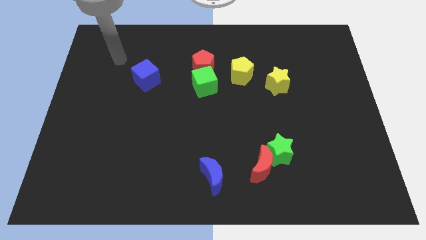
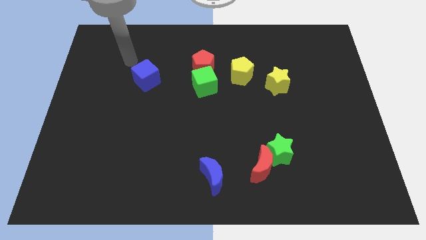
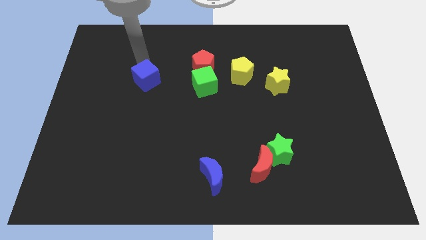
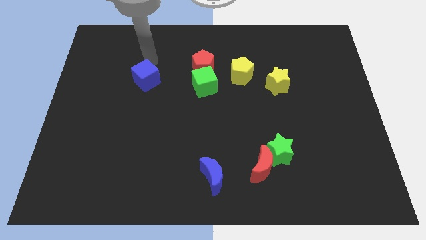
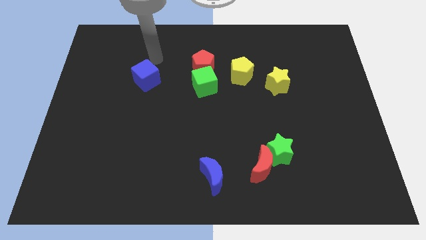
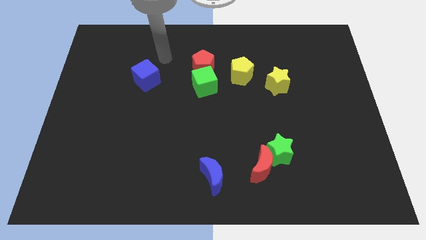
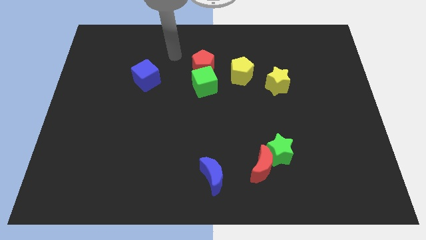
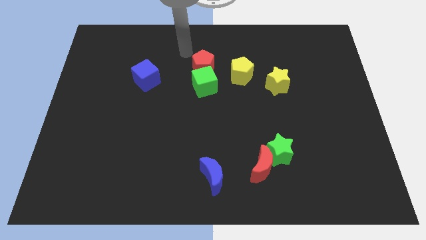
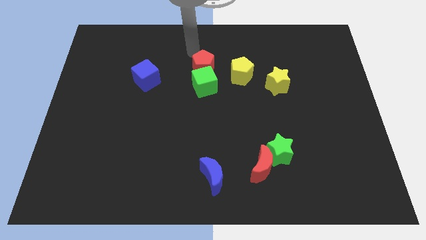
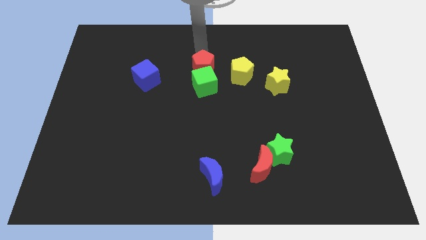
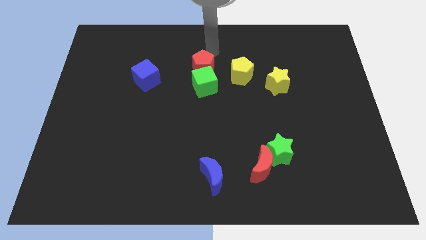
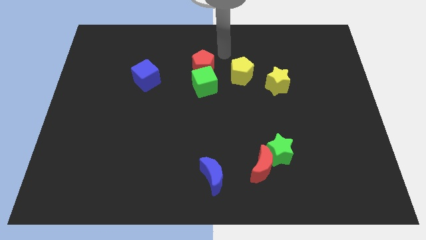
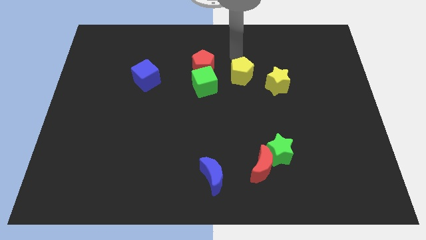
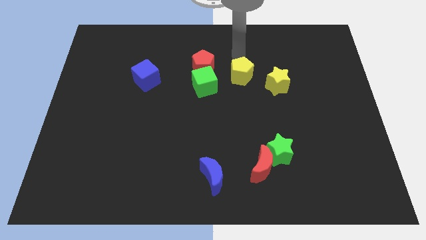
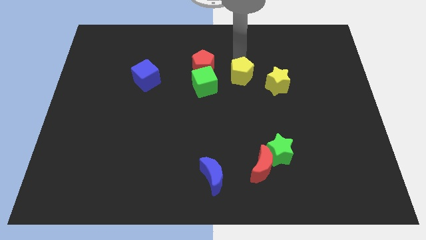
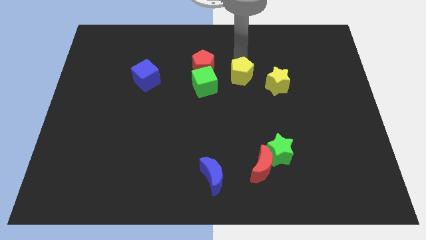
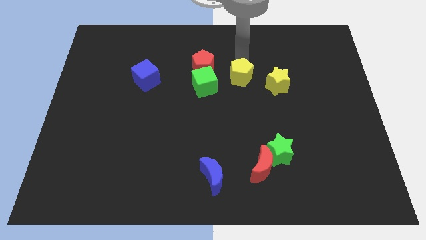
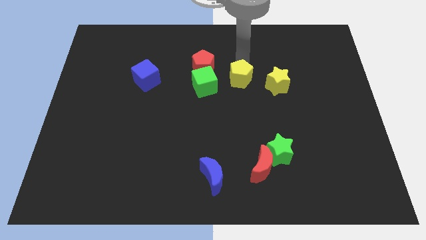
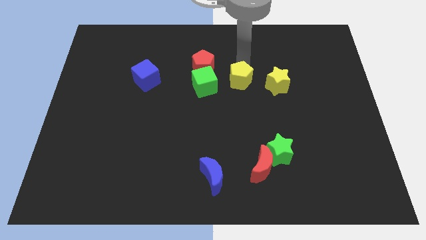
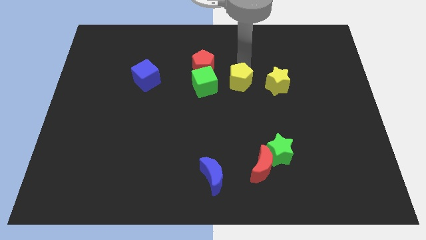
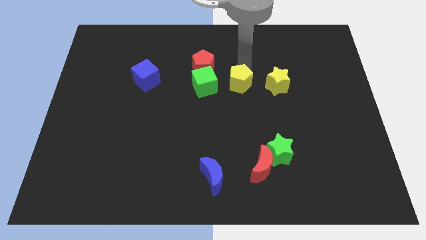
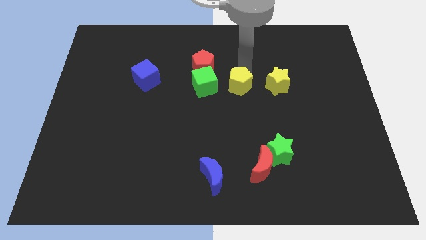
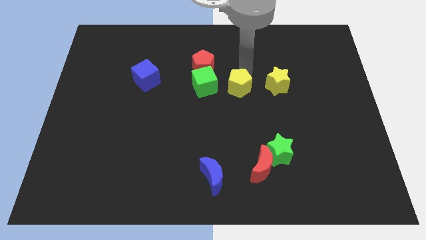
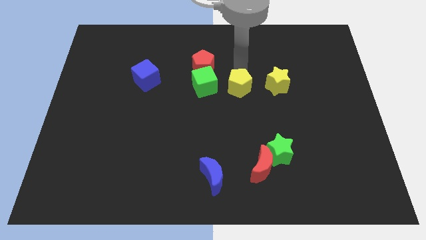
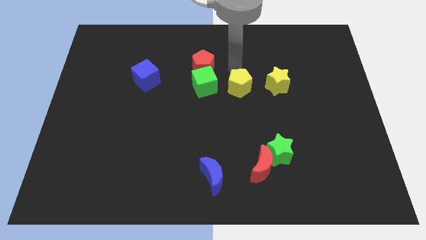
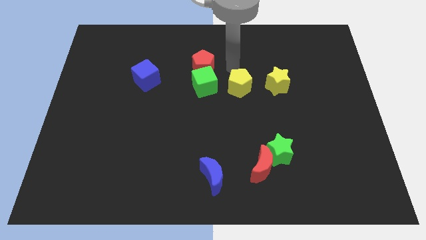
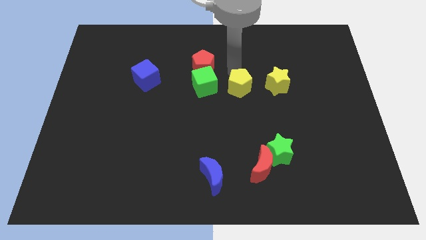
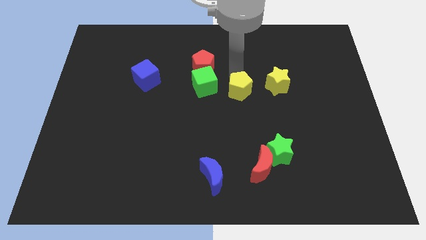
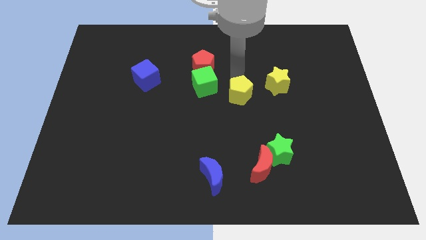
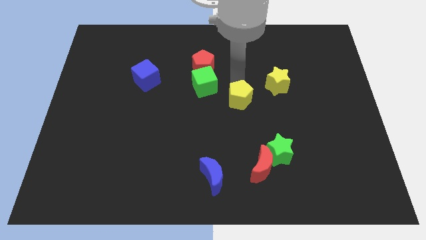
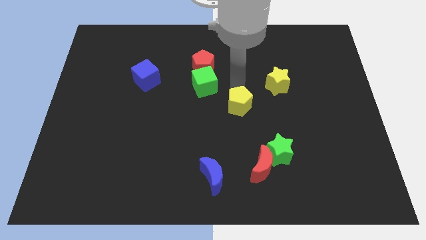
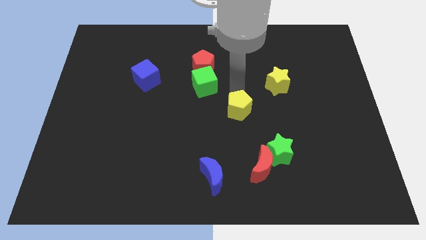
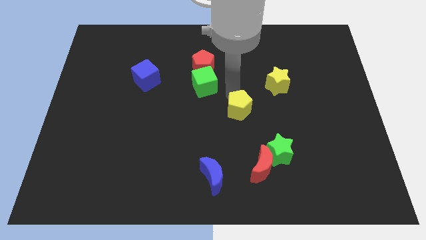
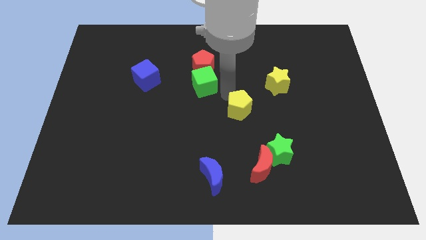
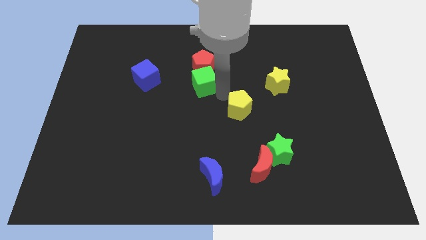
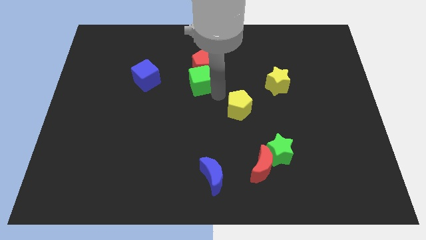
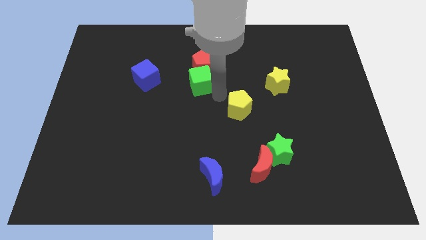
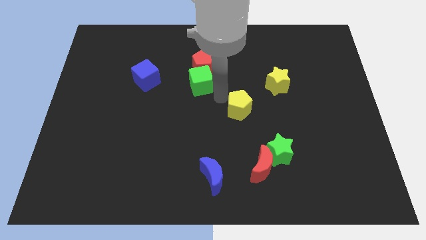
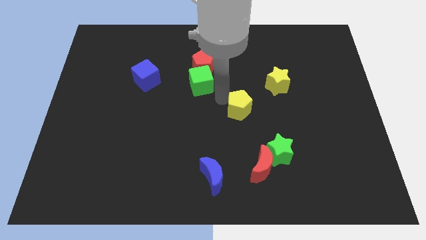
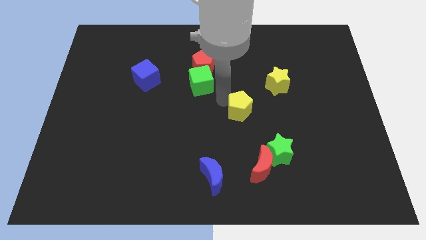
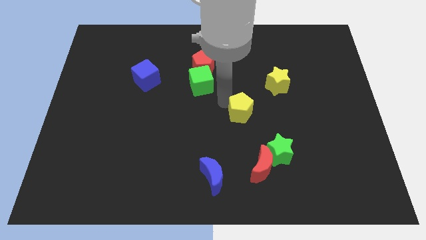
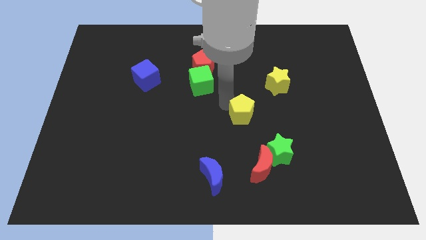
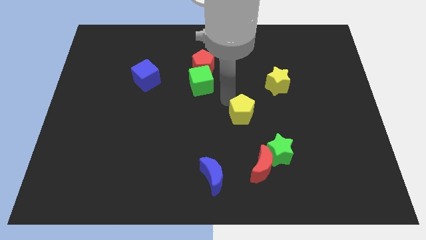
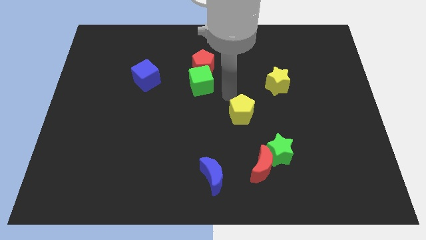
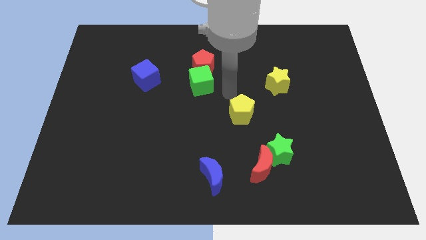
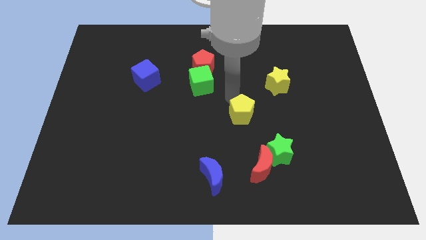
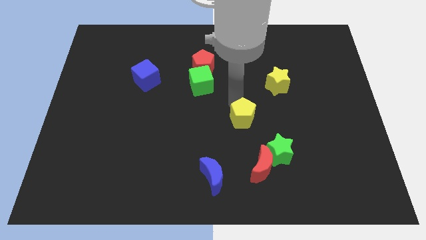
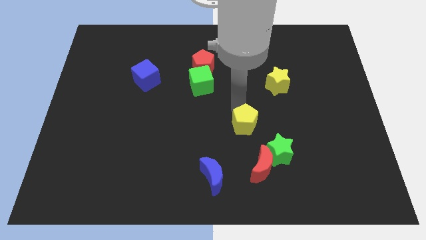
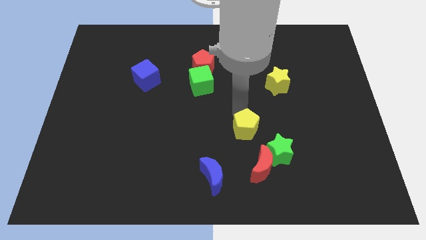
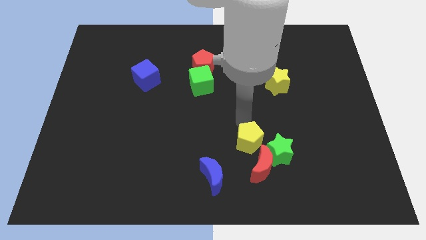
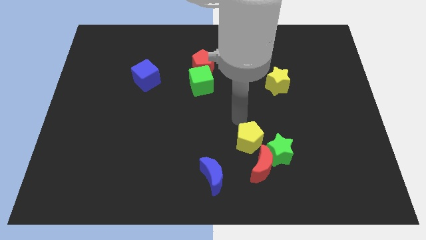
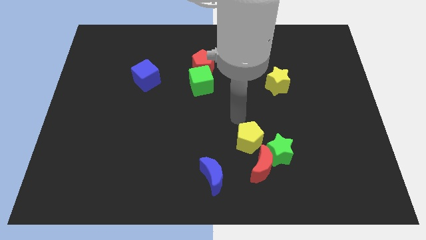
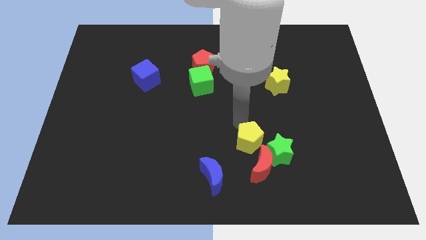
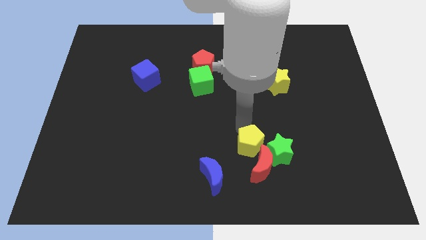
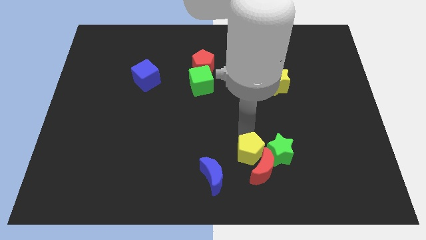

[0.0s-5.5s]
move the yellow pentagon next to the red moon

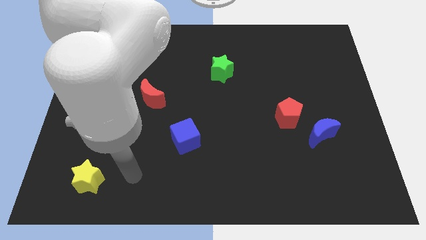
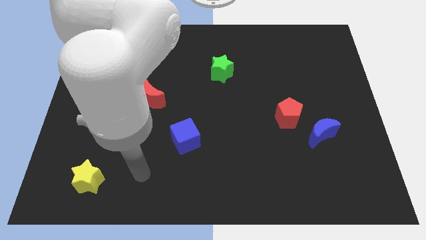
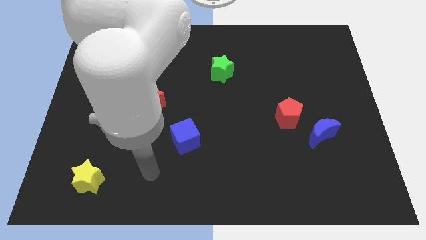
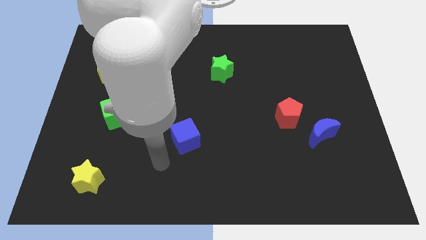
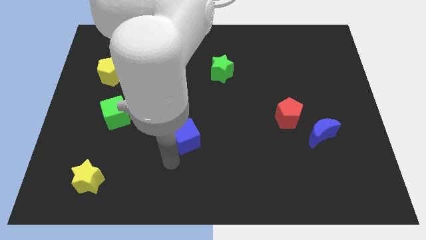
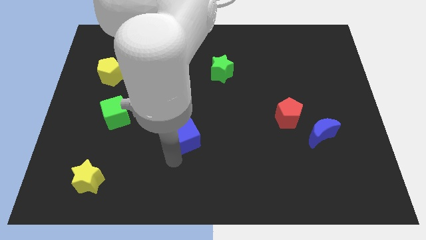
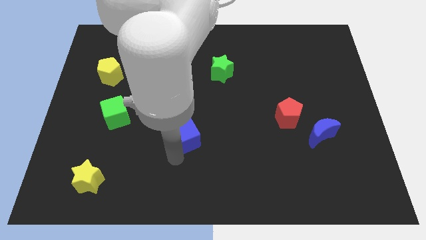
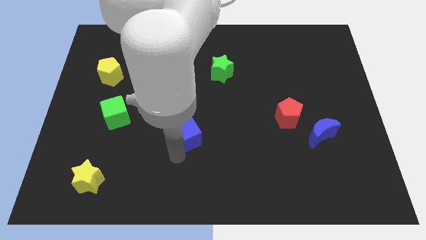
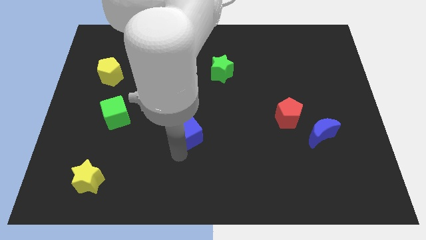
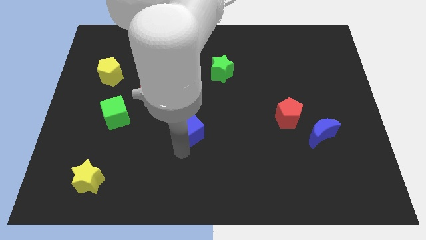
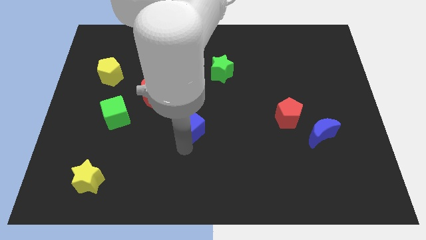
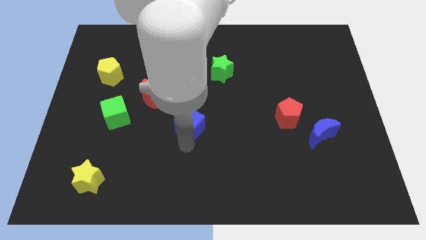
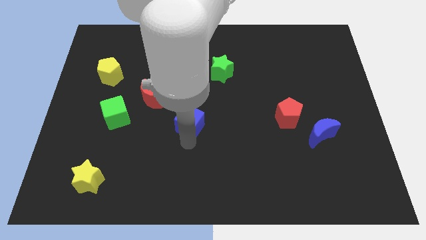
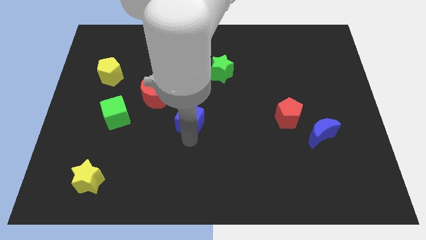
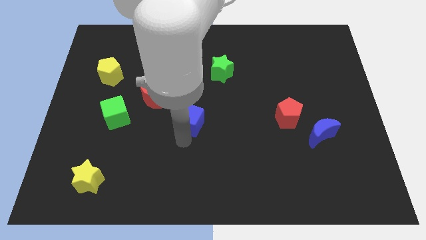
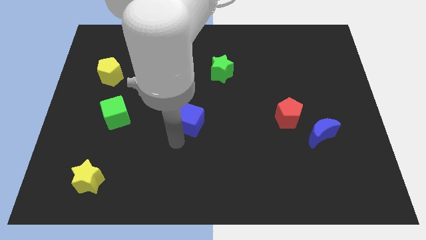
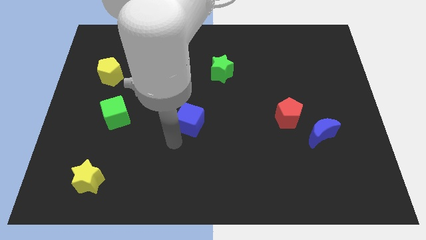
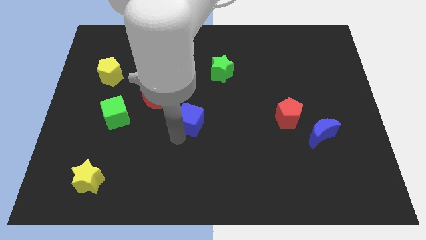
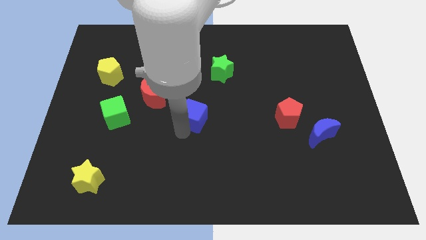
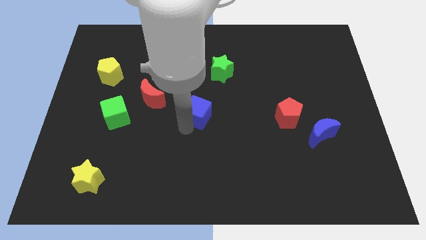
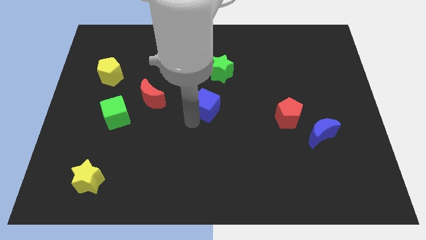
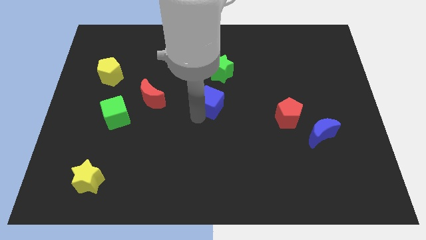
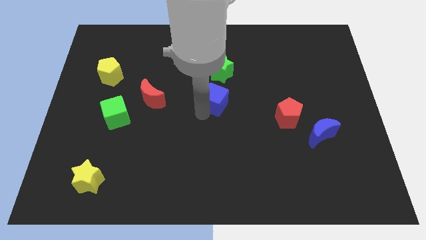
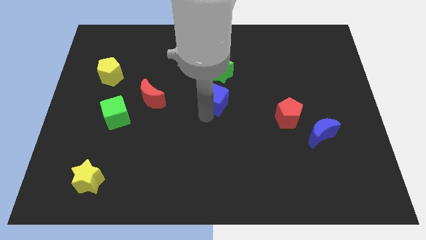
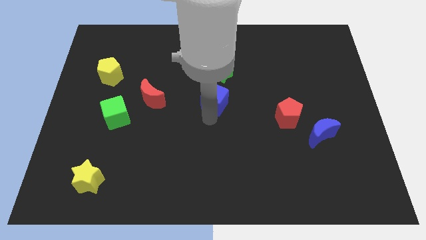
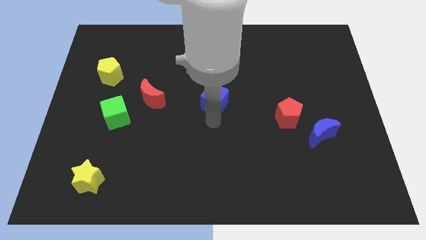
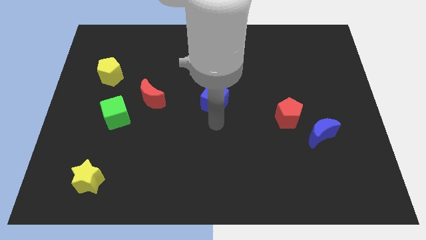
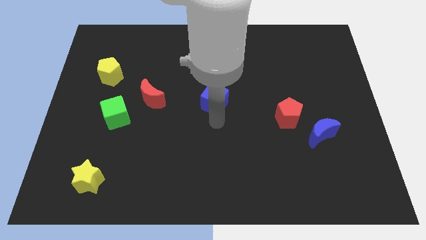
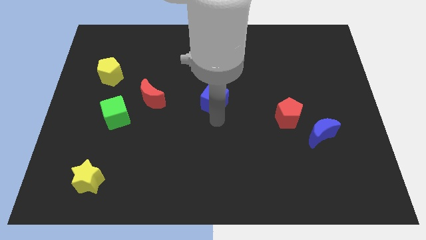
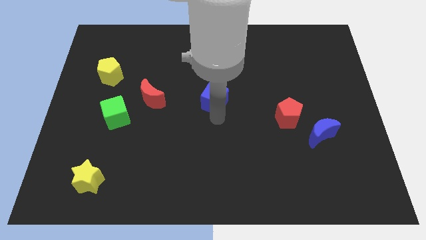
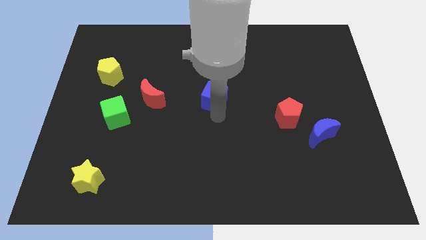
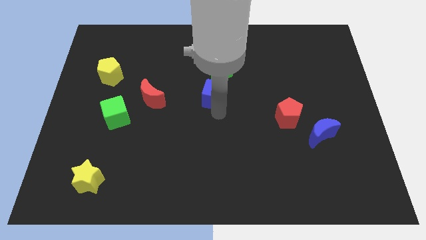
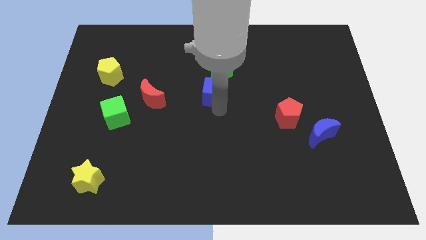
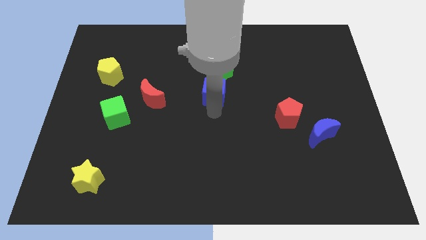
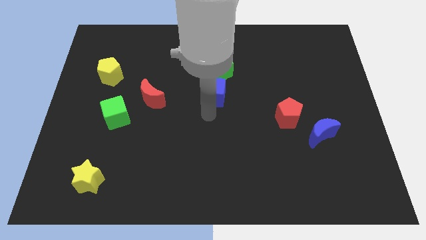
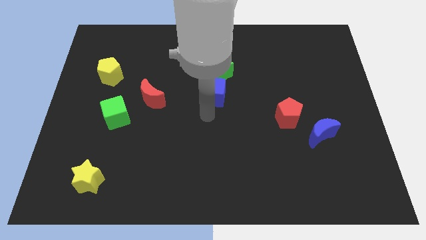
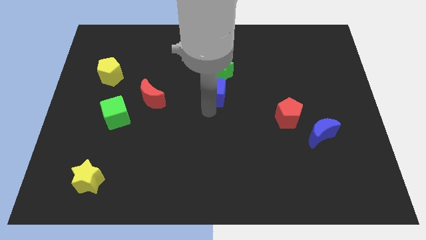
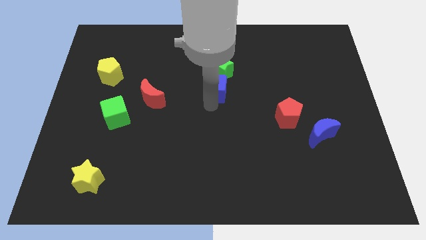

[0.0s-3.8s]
move the blue cube next to the green star
